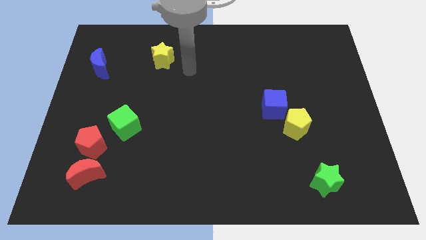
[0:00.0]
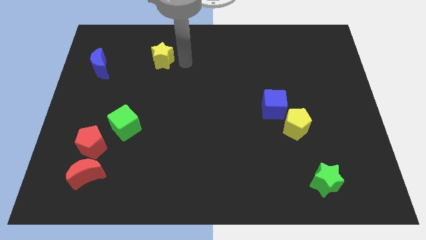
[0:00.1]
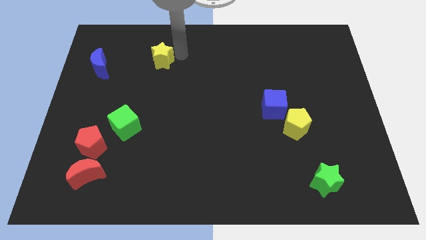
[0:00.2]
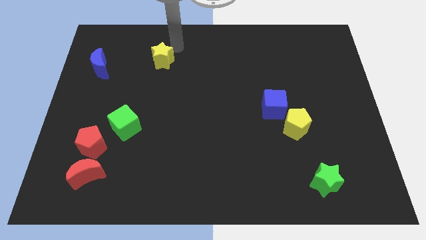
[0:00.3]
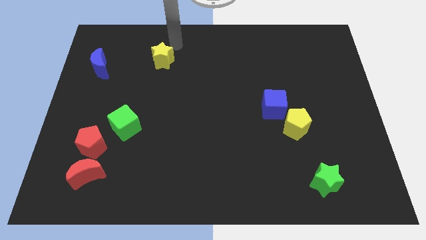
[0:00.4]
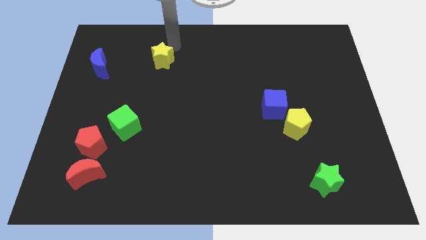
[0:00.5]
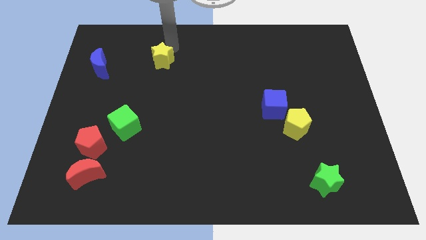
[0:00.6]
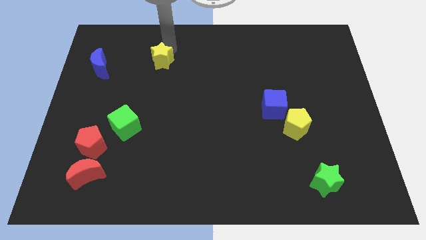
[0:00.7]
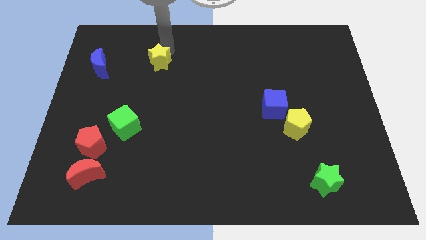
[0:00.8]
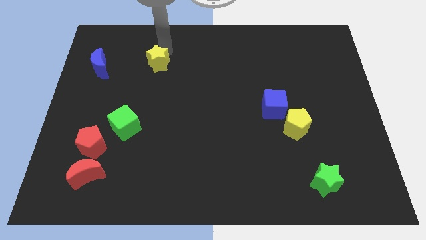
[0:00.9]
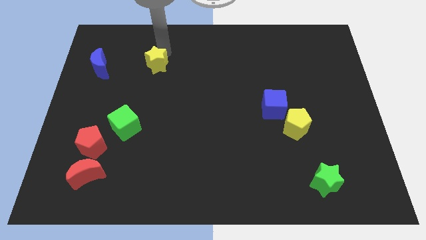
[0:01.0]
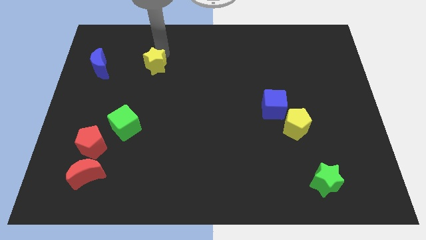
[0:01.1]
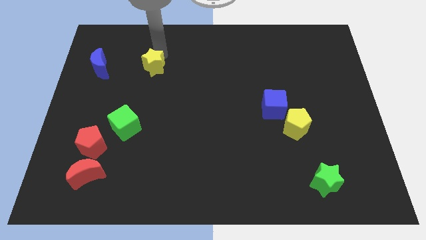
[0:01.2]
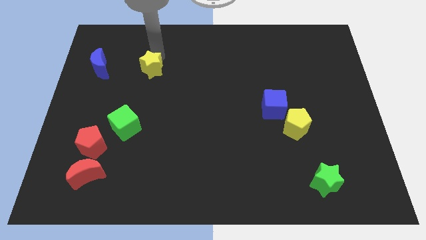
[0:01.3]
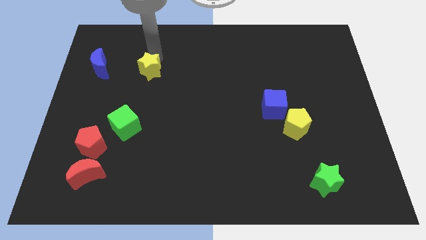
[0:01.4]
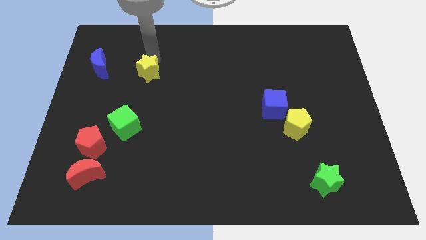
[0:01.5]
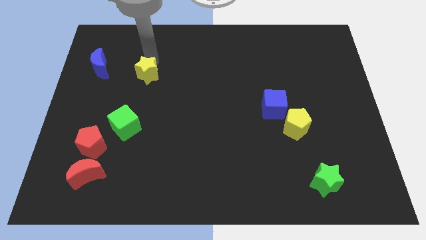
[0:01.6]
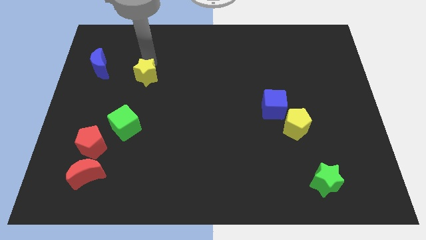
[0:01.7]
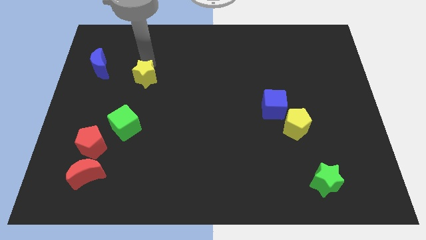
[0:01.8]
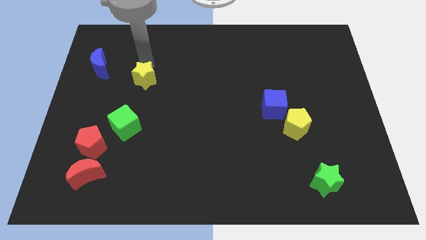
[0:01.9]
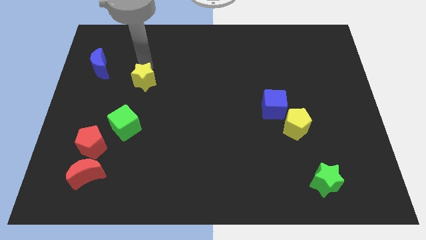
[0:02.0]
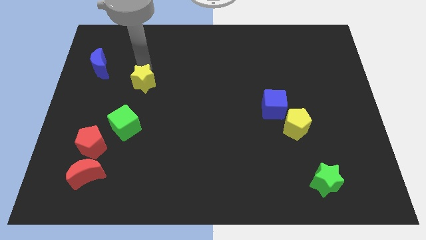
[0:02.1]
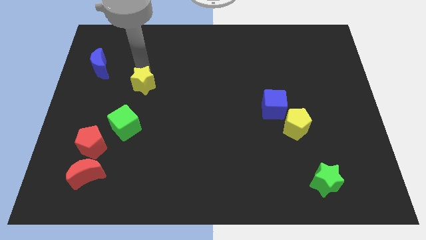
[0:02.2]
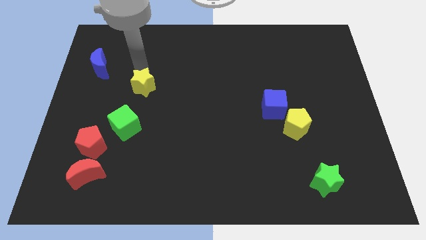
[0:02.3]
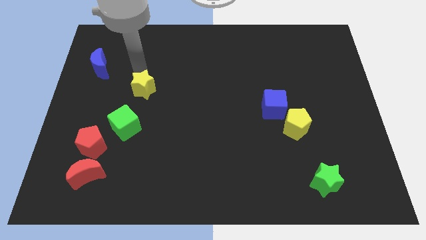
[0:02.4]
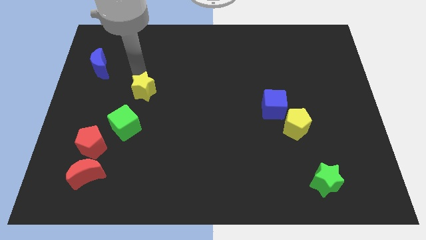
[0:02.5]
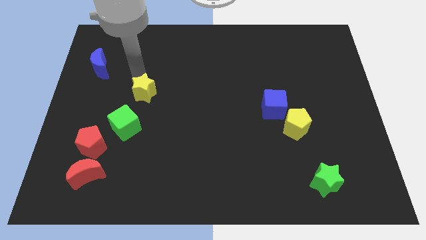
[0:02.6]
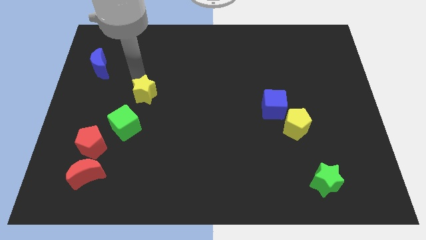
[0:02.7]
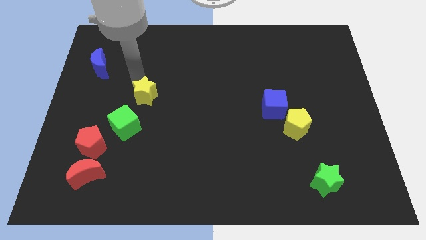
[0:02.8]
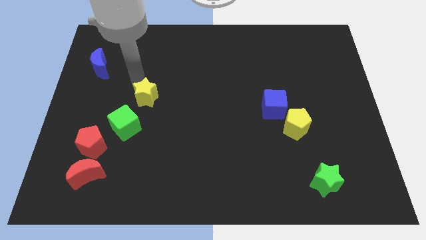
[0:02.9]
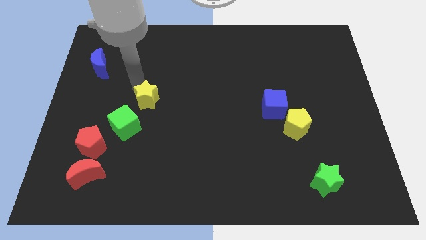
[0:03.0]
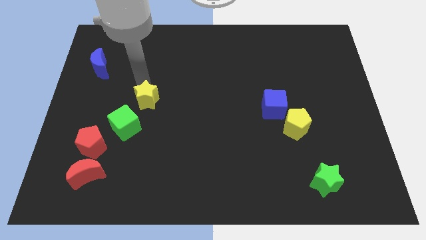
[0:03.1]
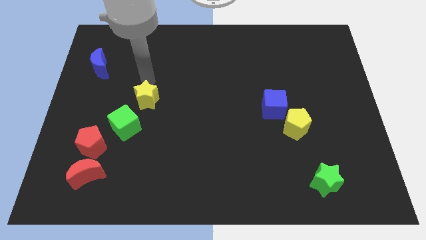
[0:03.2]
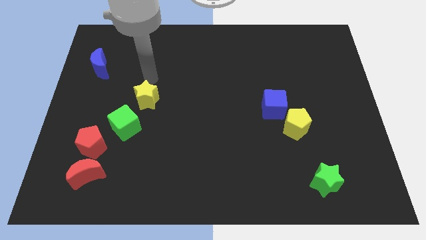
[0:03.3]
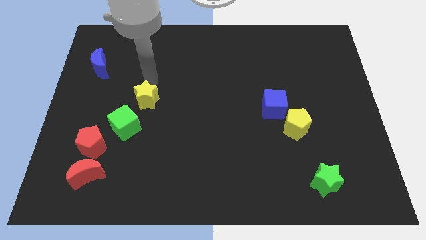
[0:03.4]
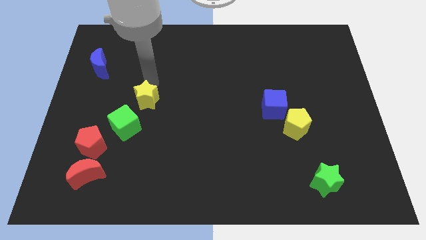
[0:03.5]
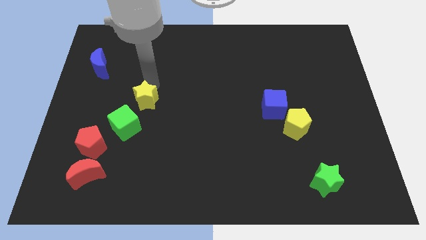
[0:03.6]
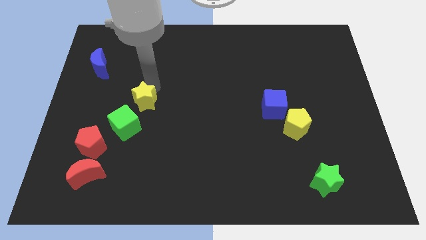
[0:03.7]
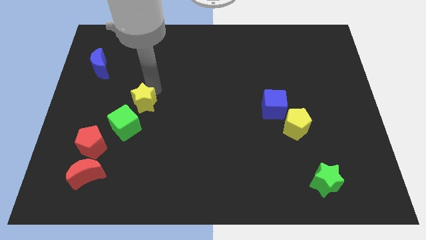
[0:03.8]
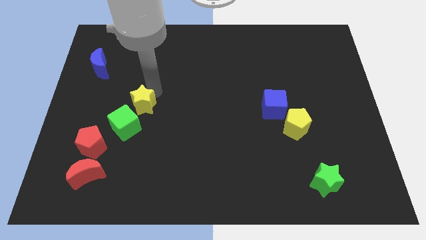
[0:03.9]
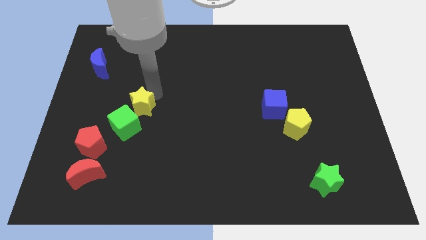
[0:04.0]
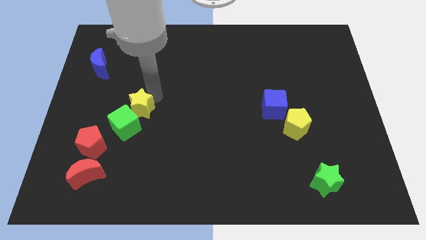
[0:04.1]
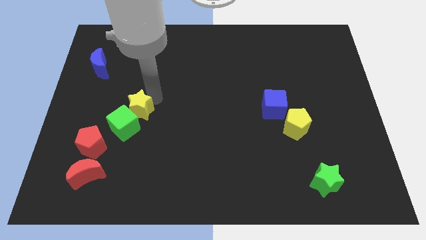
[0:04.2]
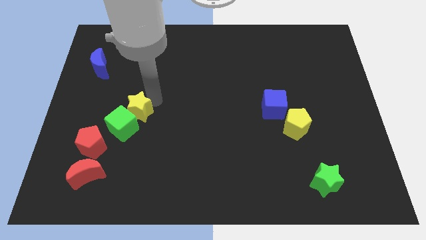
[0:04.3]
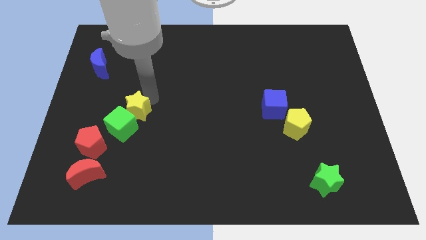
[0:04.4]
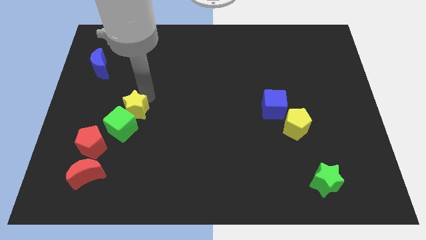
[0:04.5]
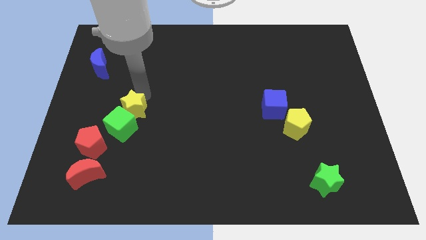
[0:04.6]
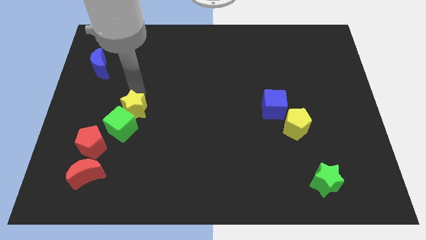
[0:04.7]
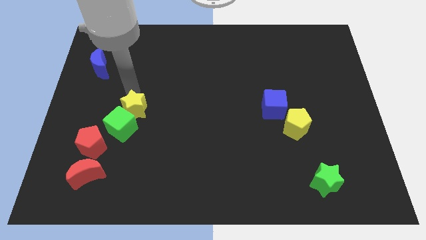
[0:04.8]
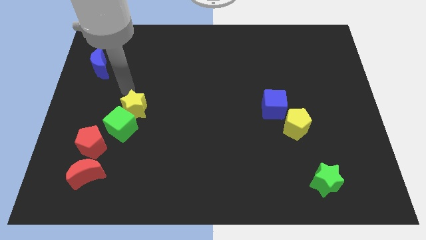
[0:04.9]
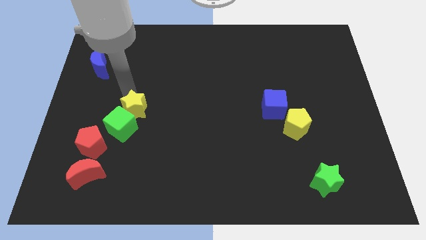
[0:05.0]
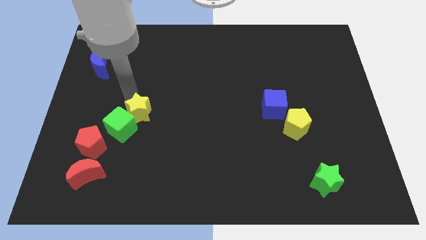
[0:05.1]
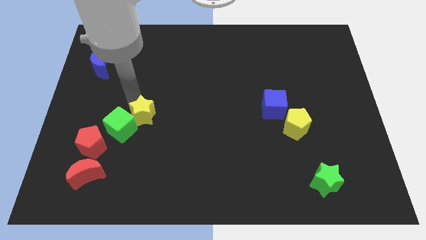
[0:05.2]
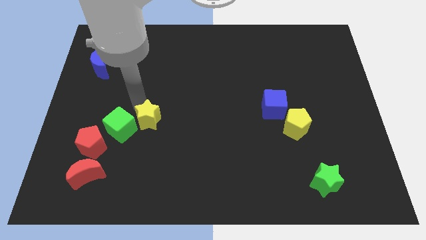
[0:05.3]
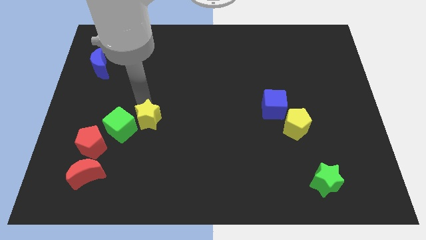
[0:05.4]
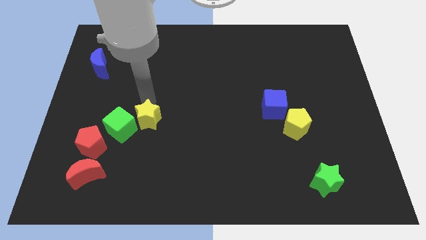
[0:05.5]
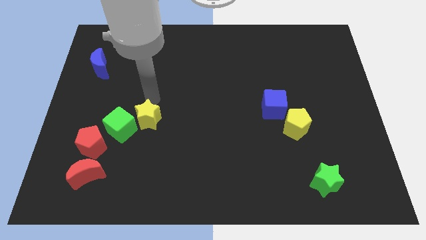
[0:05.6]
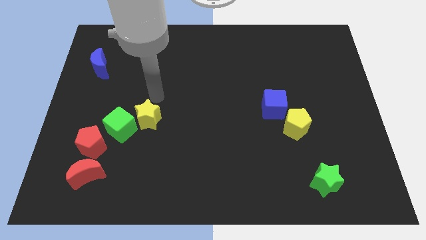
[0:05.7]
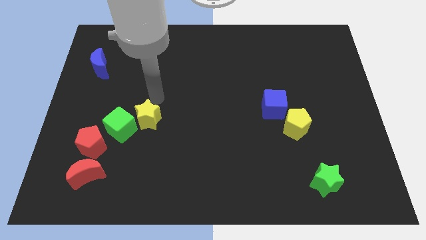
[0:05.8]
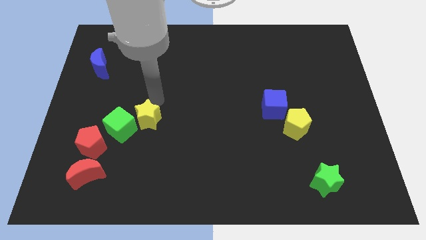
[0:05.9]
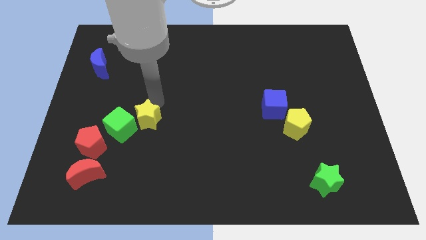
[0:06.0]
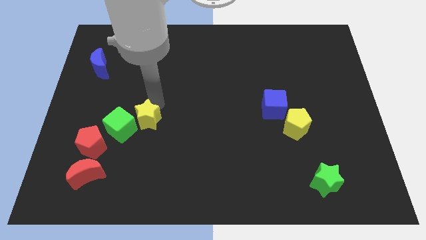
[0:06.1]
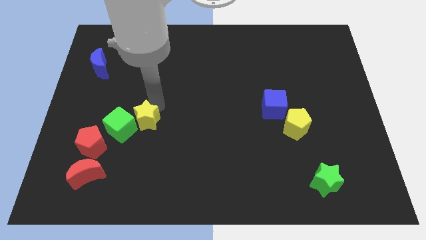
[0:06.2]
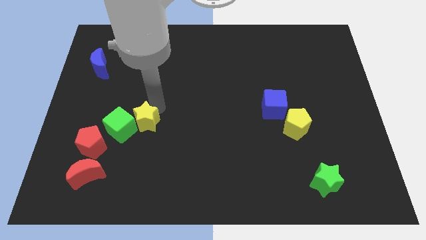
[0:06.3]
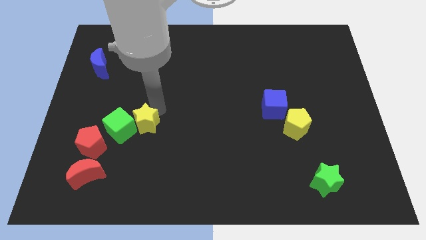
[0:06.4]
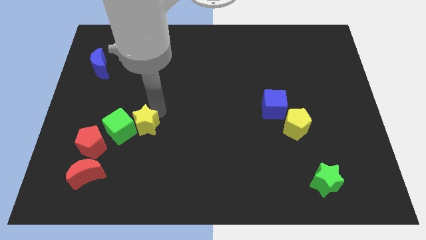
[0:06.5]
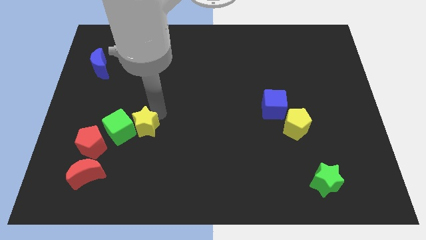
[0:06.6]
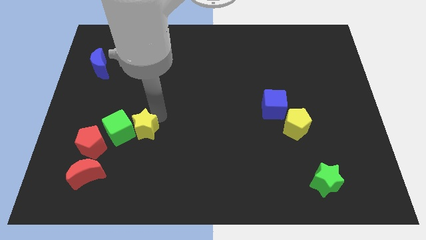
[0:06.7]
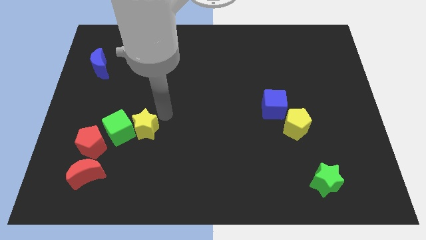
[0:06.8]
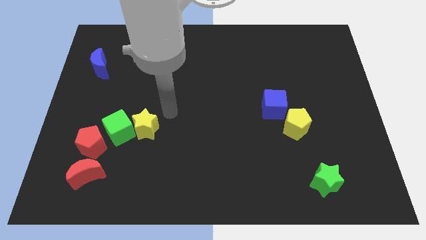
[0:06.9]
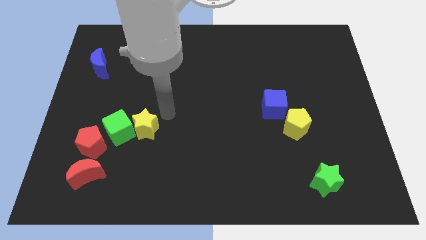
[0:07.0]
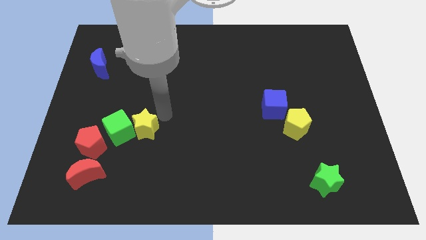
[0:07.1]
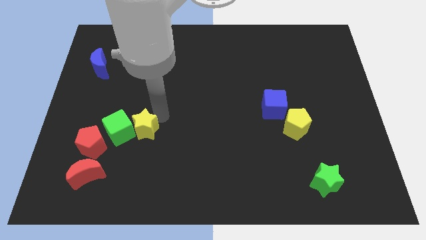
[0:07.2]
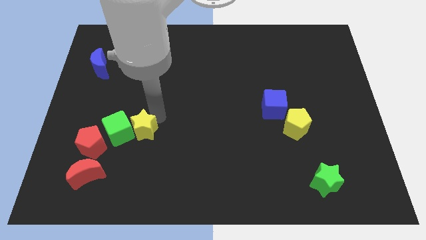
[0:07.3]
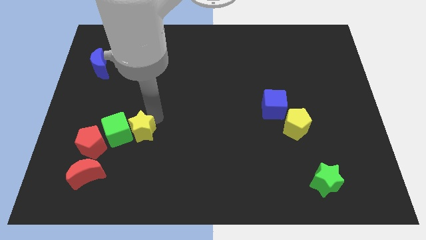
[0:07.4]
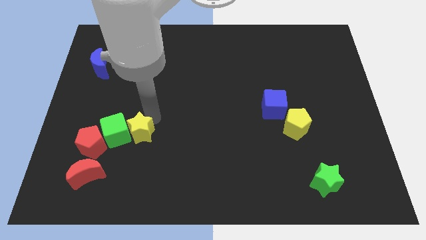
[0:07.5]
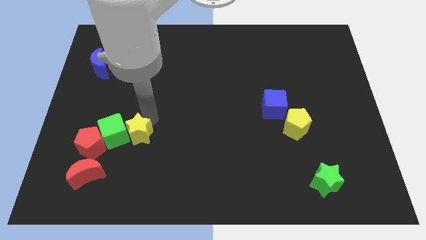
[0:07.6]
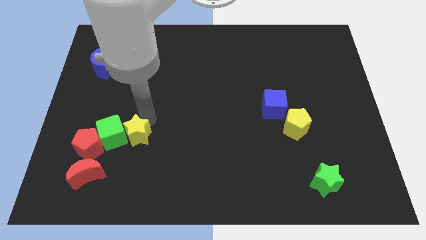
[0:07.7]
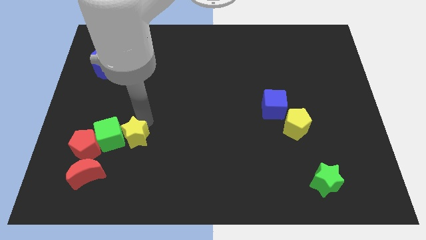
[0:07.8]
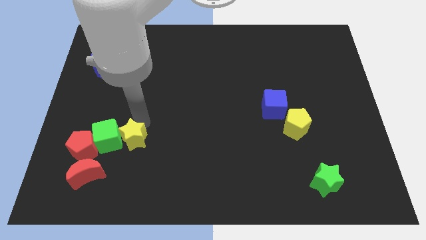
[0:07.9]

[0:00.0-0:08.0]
slide the yellow star diagonally up and to the right of the red moon
